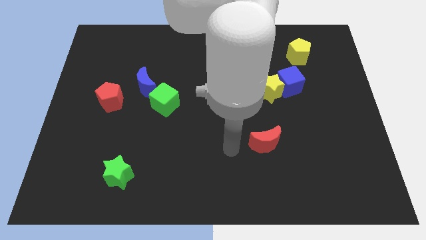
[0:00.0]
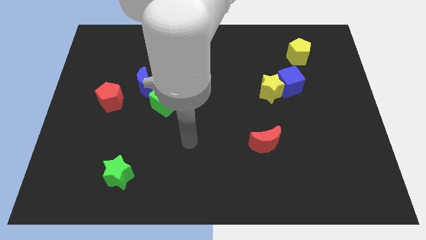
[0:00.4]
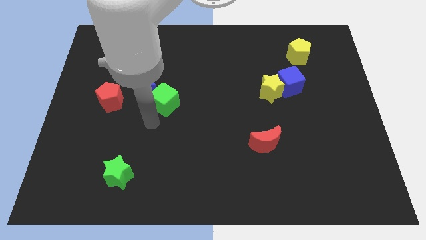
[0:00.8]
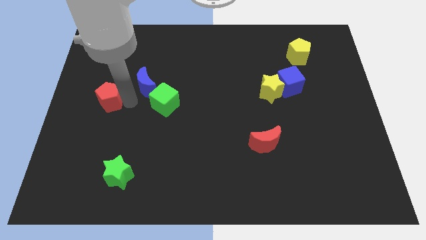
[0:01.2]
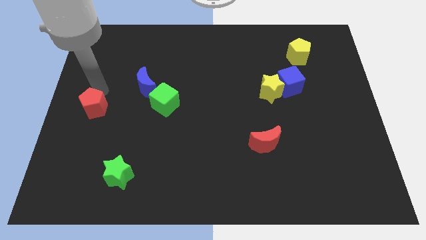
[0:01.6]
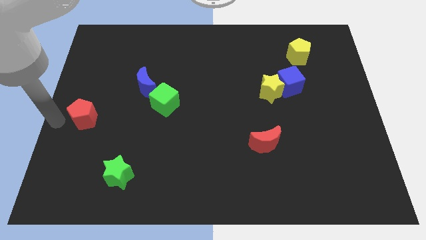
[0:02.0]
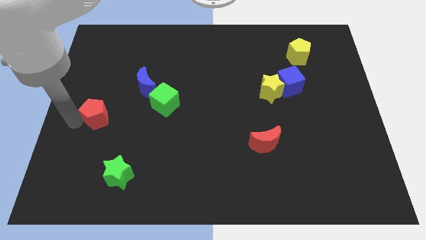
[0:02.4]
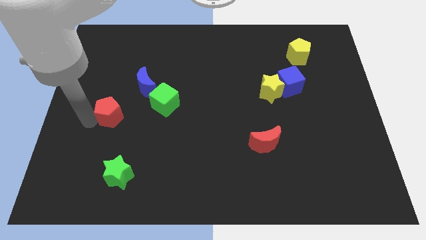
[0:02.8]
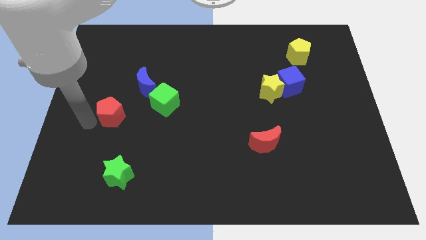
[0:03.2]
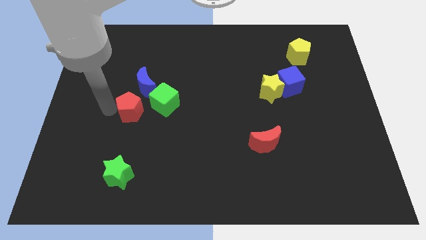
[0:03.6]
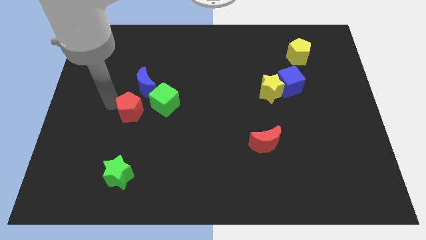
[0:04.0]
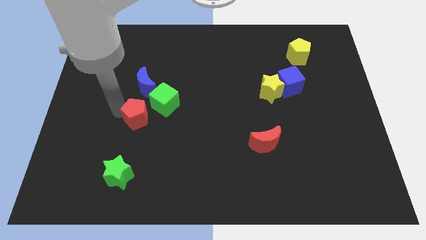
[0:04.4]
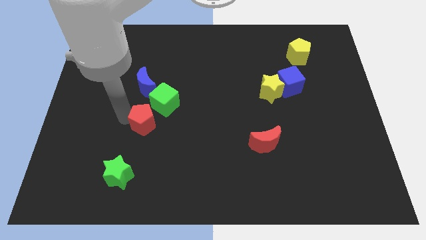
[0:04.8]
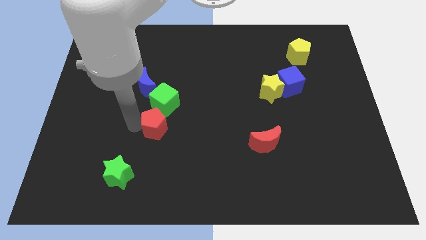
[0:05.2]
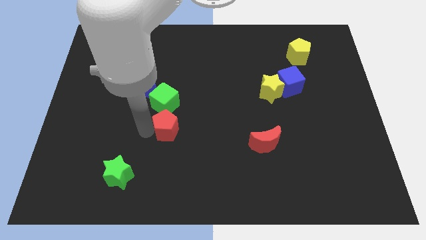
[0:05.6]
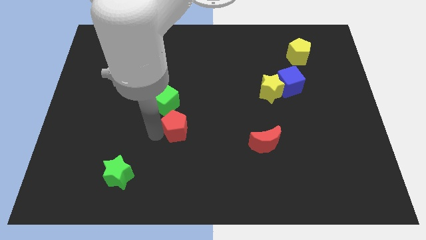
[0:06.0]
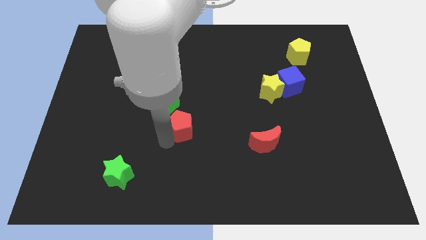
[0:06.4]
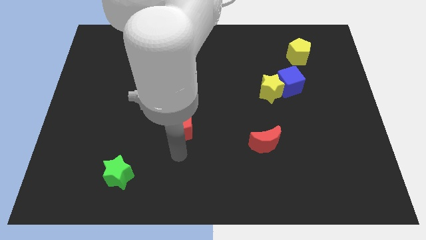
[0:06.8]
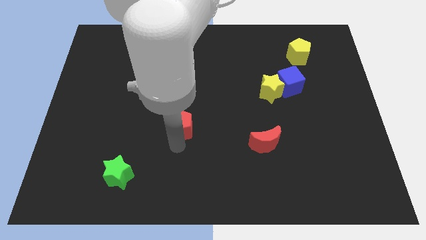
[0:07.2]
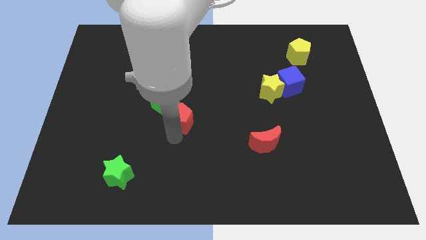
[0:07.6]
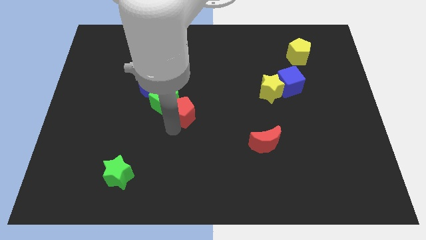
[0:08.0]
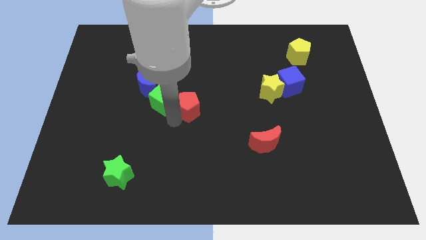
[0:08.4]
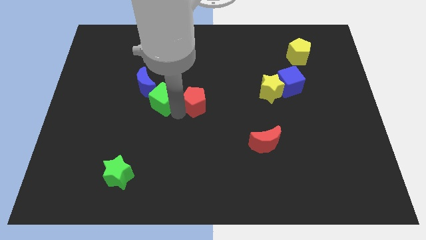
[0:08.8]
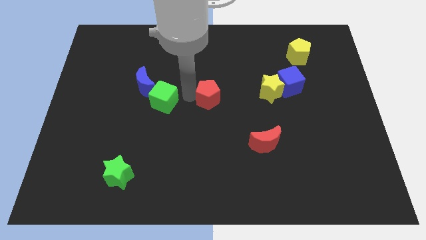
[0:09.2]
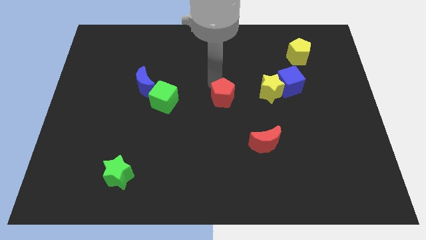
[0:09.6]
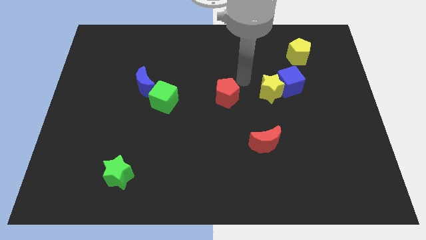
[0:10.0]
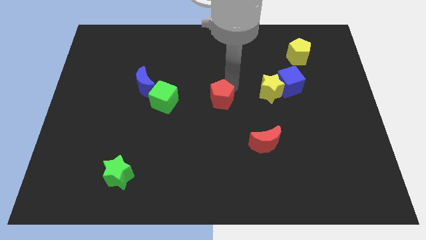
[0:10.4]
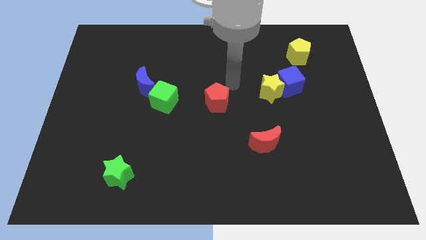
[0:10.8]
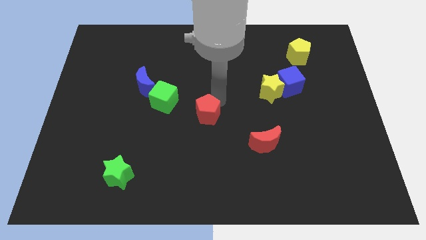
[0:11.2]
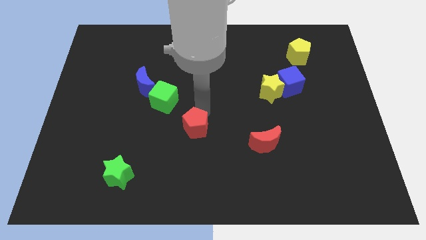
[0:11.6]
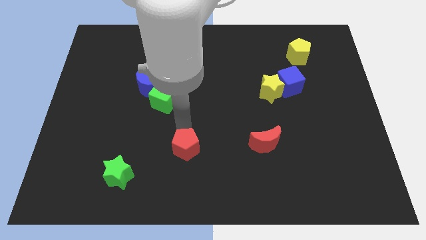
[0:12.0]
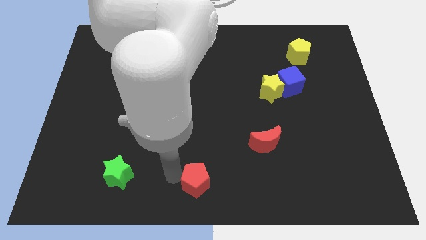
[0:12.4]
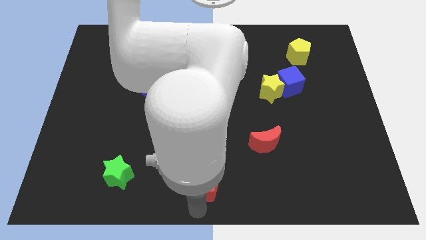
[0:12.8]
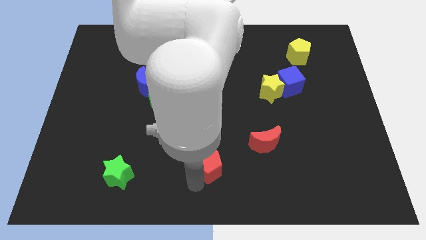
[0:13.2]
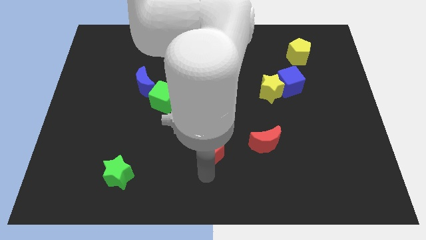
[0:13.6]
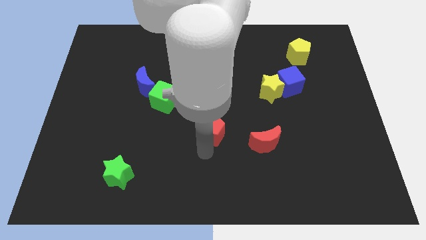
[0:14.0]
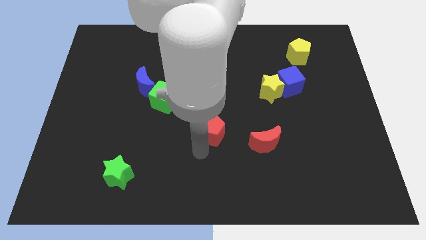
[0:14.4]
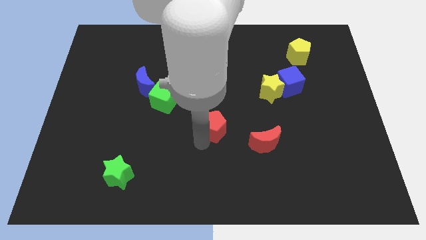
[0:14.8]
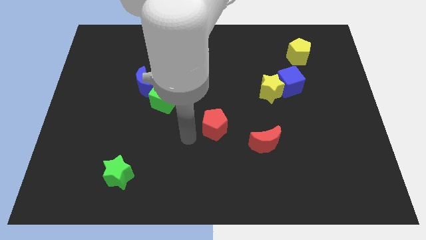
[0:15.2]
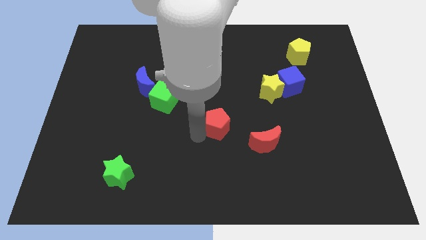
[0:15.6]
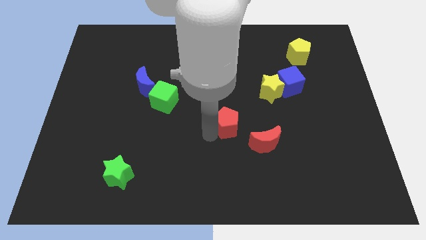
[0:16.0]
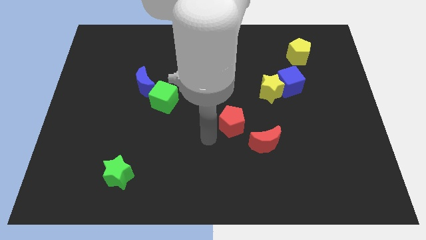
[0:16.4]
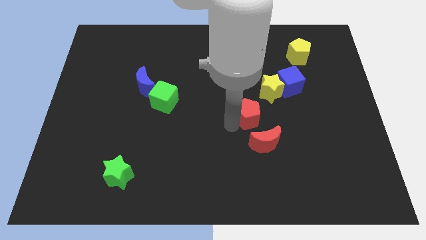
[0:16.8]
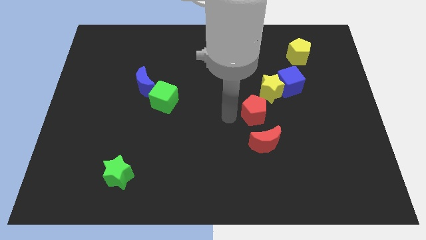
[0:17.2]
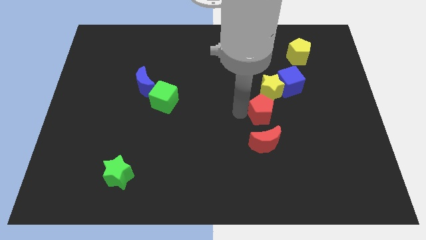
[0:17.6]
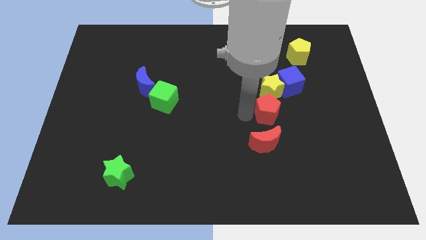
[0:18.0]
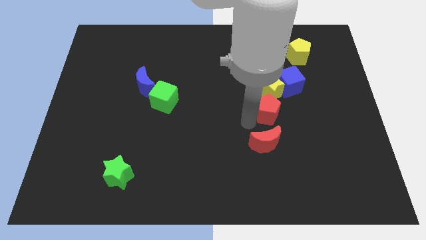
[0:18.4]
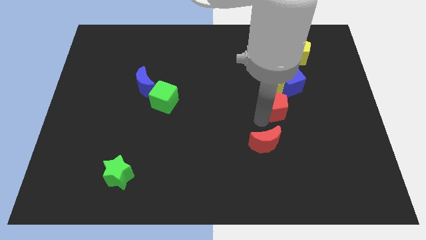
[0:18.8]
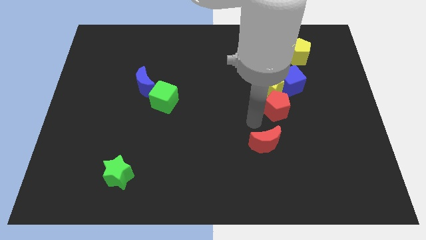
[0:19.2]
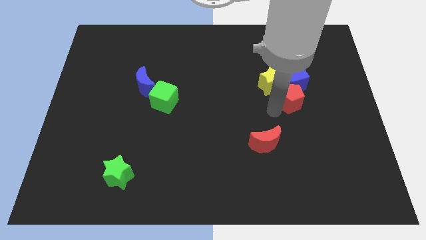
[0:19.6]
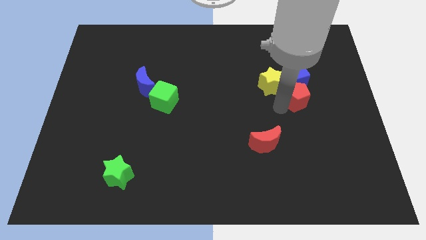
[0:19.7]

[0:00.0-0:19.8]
move the red pentagon below the yellow pentagon

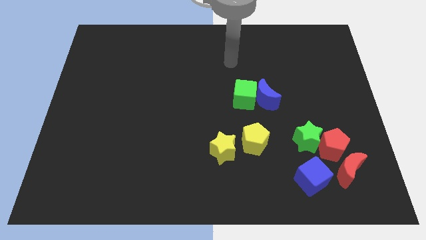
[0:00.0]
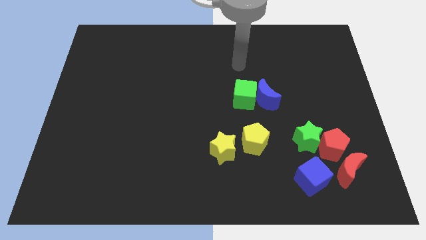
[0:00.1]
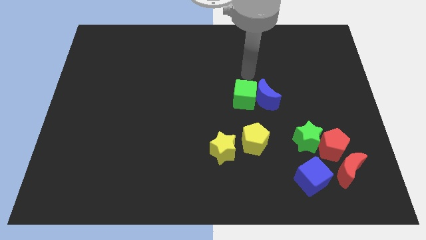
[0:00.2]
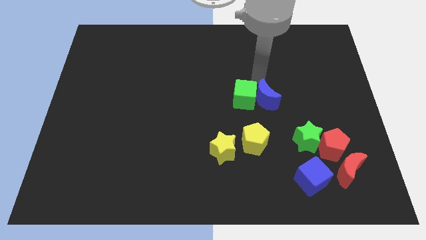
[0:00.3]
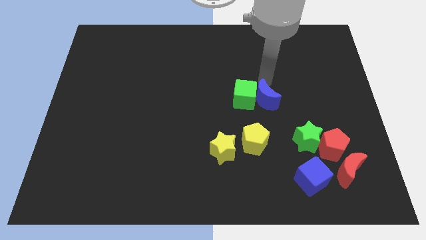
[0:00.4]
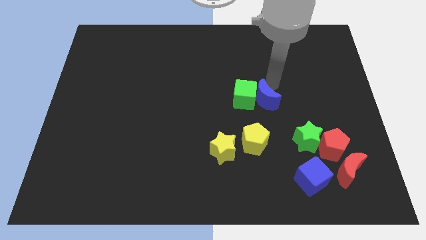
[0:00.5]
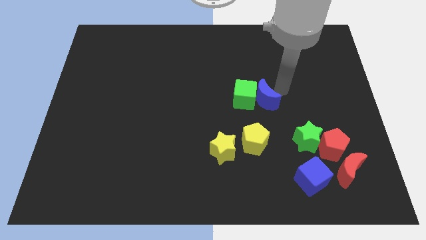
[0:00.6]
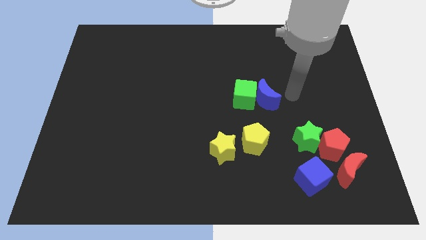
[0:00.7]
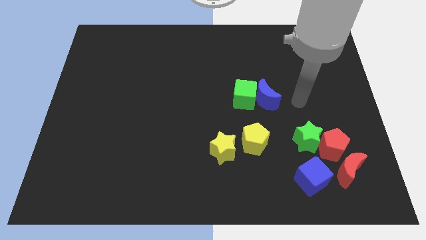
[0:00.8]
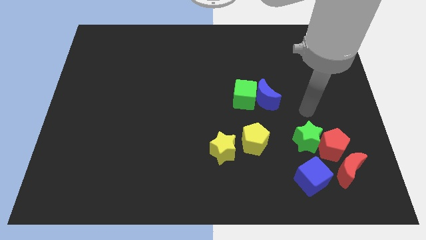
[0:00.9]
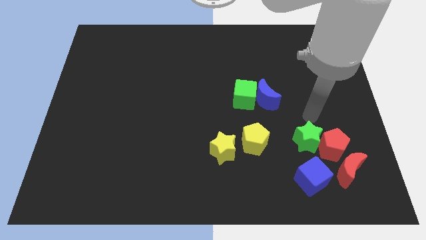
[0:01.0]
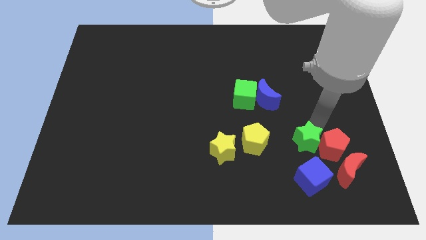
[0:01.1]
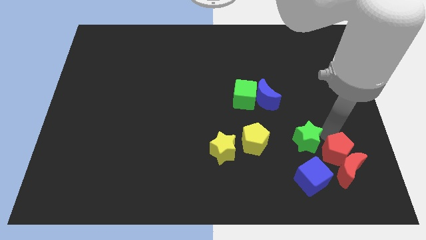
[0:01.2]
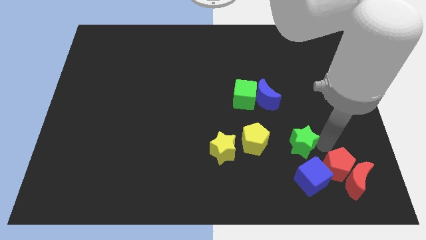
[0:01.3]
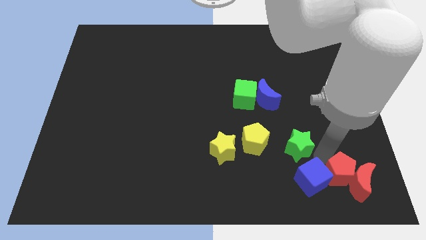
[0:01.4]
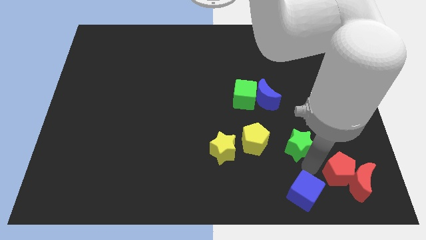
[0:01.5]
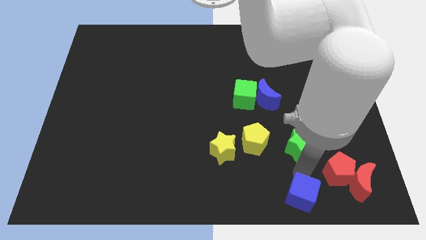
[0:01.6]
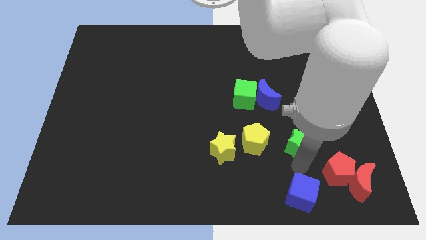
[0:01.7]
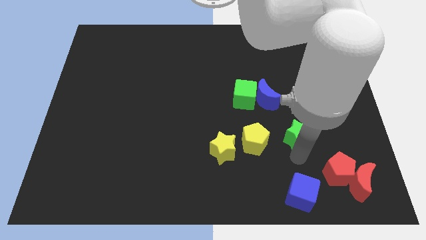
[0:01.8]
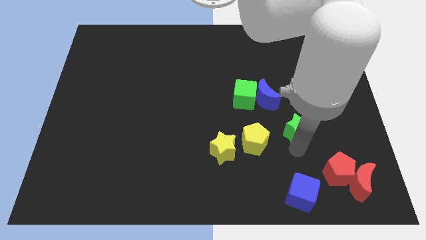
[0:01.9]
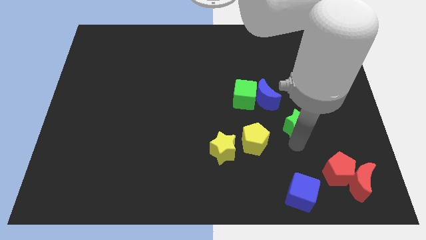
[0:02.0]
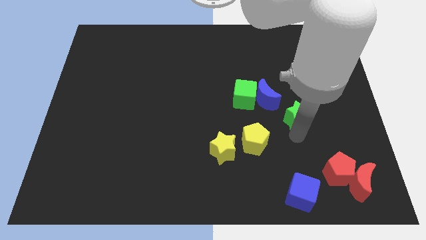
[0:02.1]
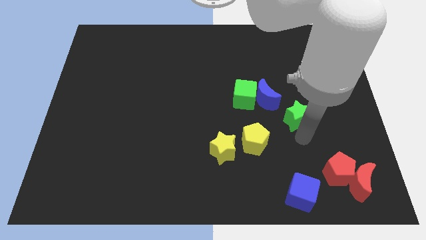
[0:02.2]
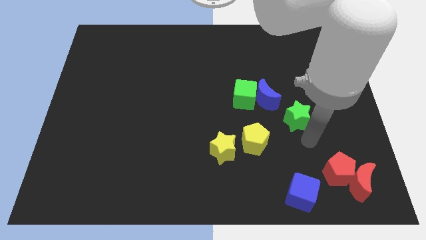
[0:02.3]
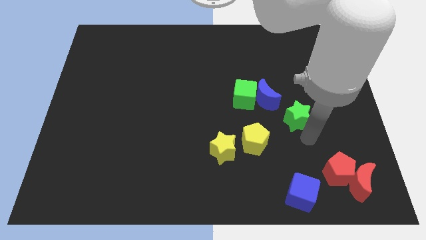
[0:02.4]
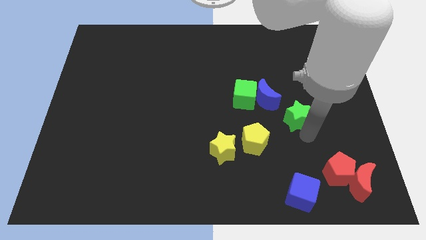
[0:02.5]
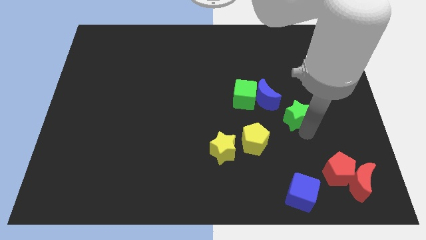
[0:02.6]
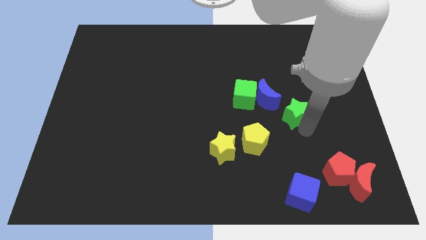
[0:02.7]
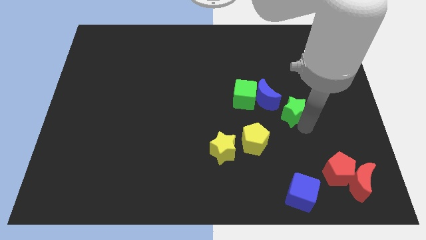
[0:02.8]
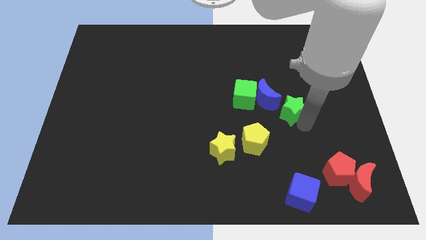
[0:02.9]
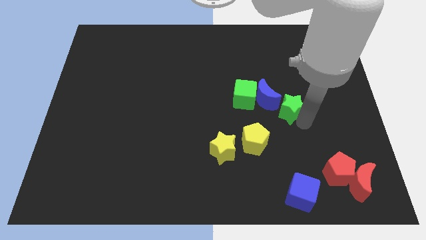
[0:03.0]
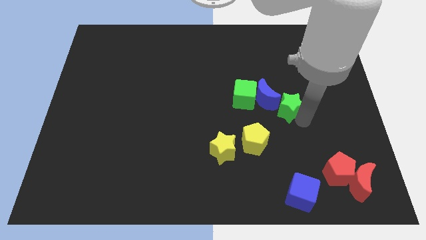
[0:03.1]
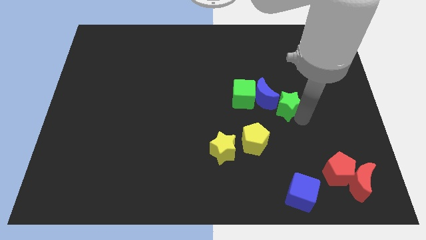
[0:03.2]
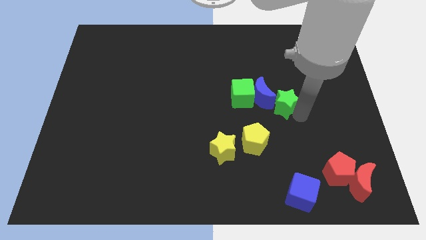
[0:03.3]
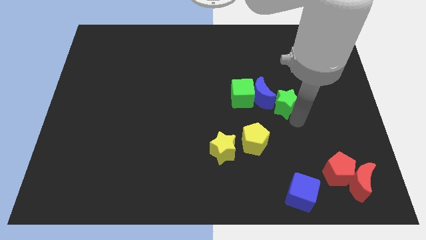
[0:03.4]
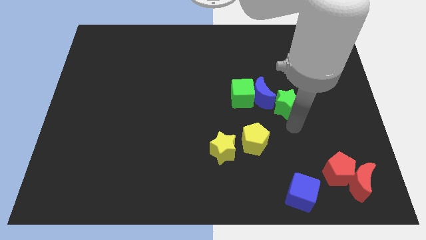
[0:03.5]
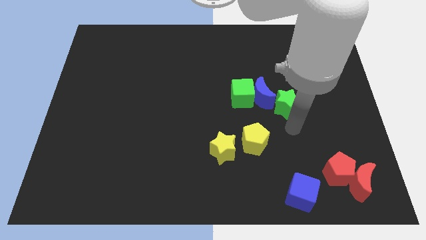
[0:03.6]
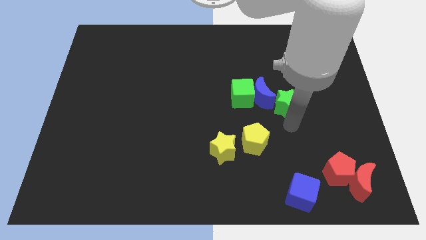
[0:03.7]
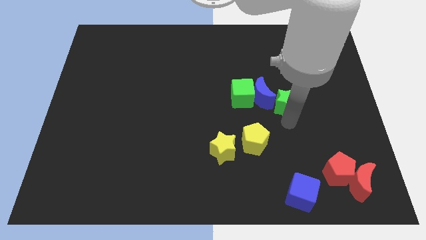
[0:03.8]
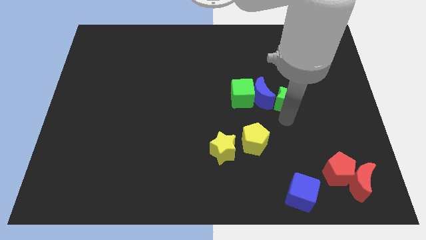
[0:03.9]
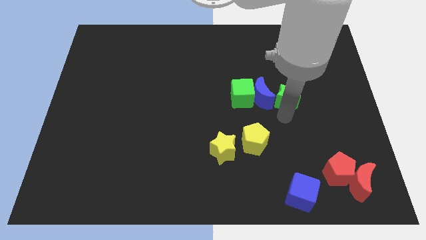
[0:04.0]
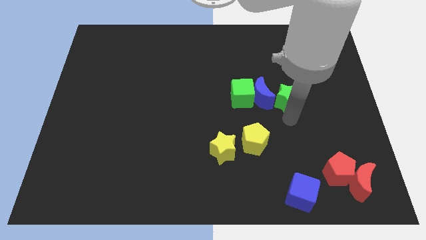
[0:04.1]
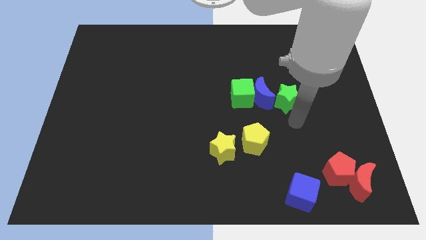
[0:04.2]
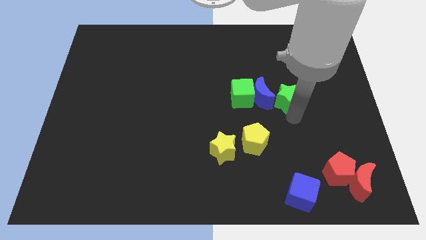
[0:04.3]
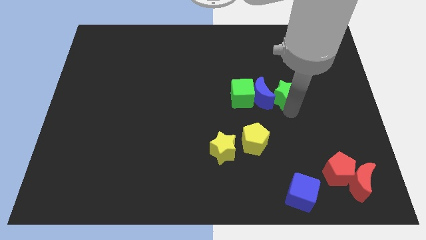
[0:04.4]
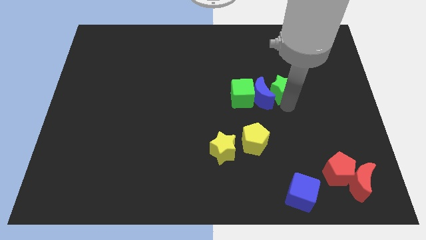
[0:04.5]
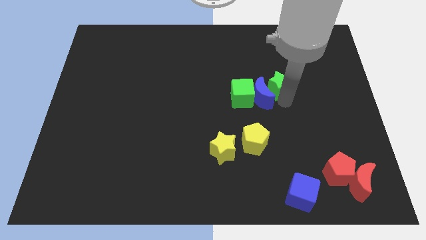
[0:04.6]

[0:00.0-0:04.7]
push the green star to the top of the blue moon
